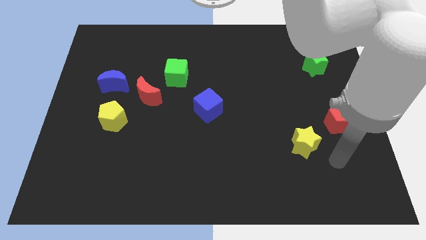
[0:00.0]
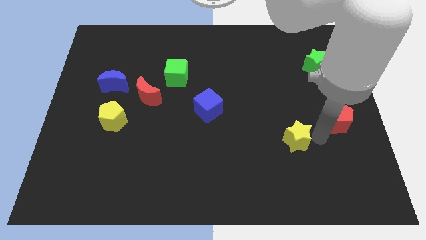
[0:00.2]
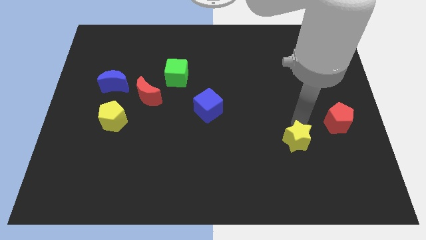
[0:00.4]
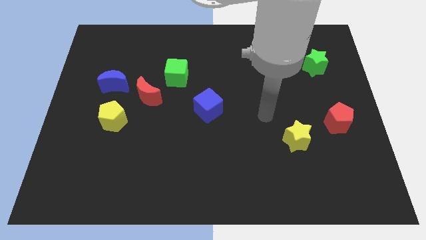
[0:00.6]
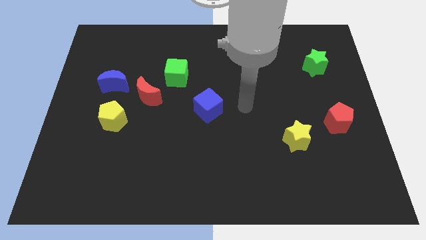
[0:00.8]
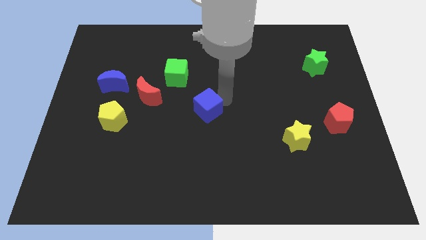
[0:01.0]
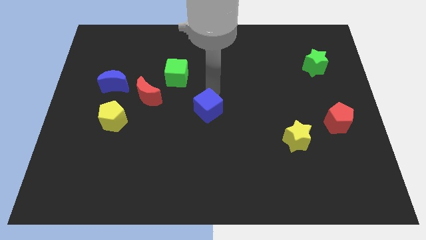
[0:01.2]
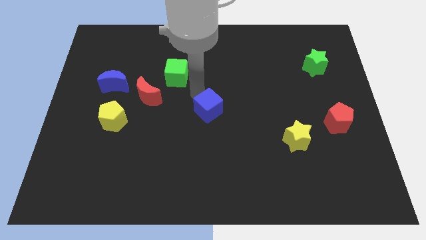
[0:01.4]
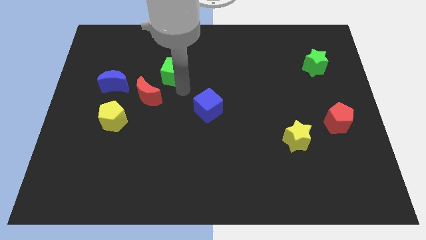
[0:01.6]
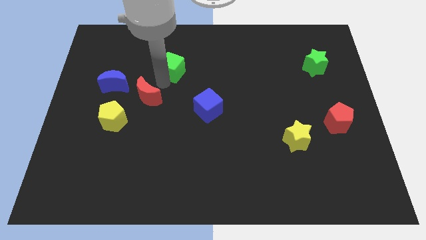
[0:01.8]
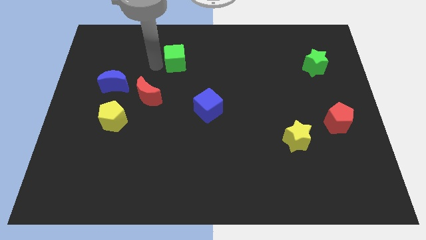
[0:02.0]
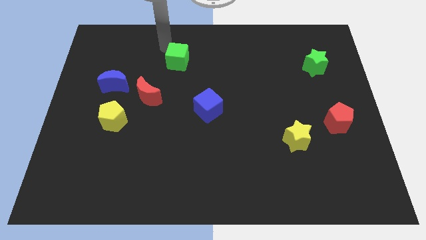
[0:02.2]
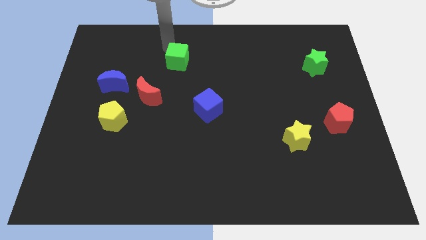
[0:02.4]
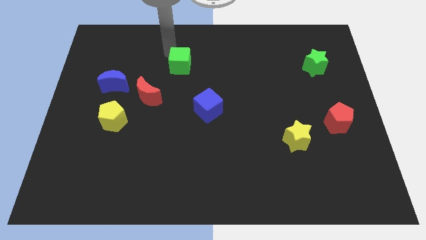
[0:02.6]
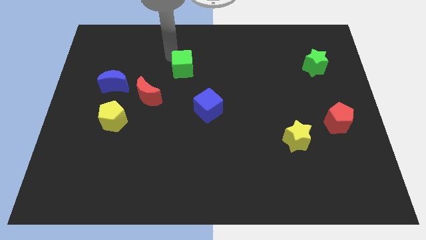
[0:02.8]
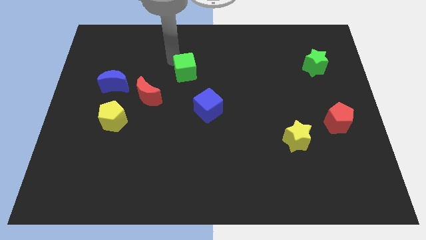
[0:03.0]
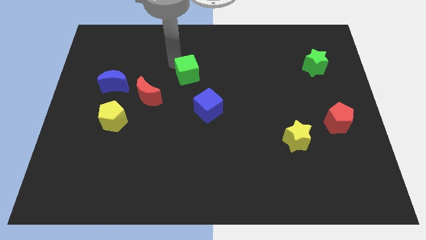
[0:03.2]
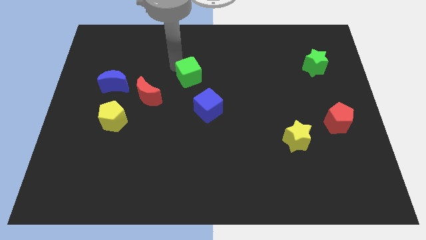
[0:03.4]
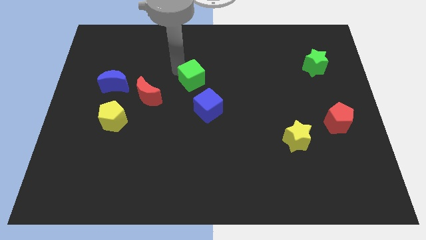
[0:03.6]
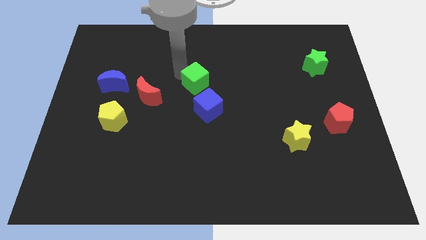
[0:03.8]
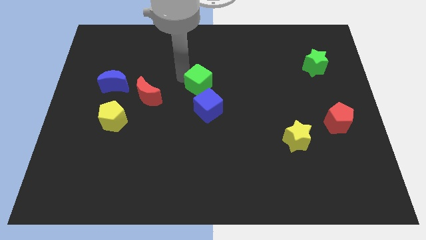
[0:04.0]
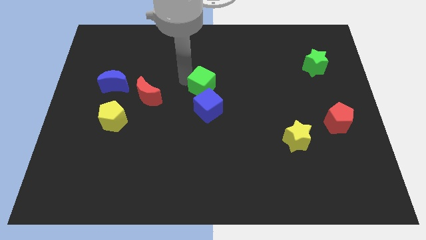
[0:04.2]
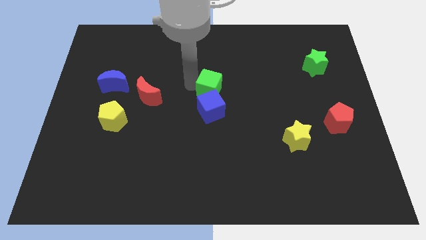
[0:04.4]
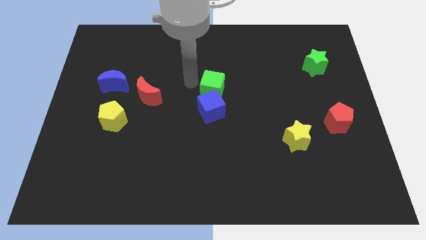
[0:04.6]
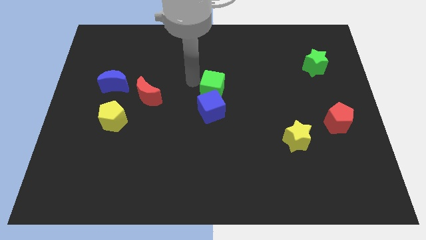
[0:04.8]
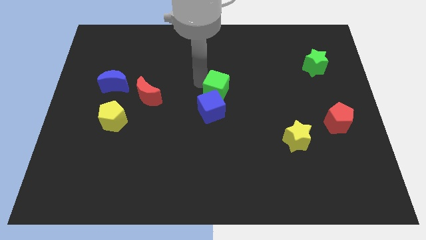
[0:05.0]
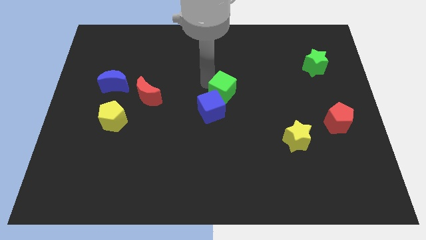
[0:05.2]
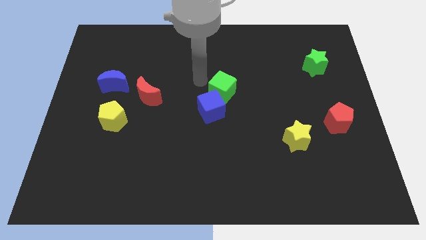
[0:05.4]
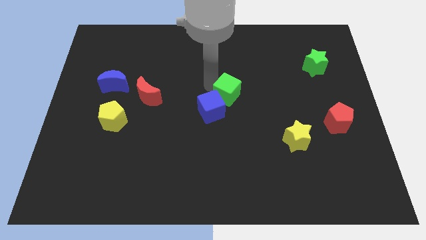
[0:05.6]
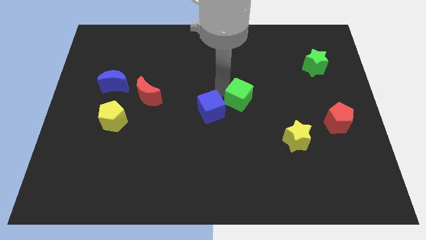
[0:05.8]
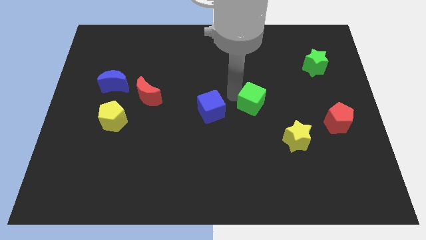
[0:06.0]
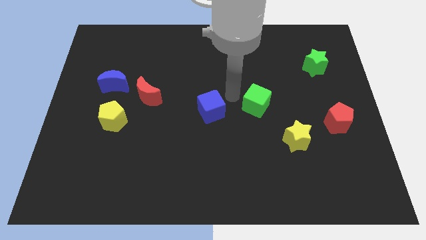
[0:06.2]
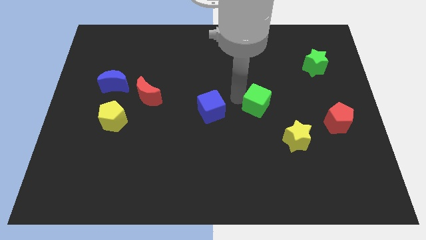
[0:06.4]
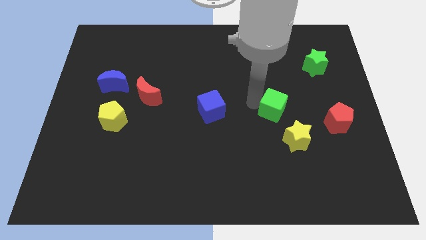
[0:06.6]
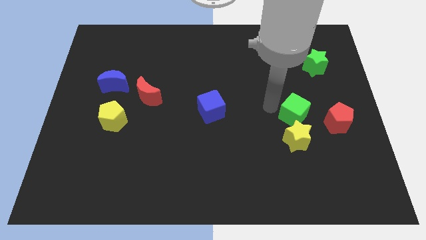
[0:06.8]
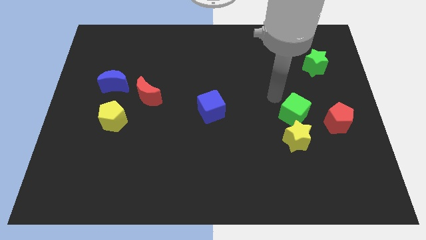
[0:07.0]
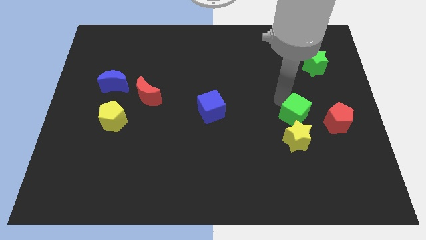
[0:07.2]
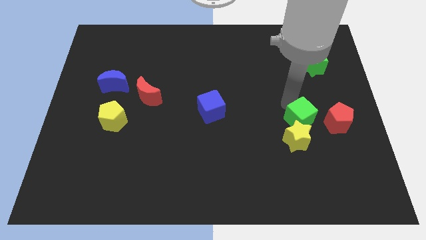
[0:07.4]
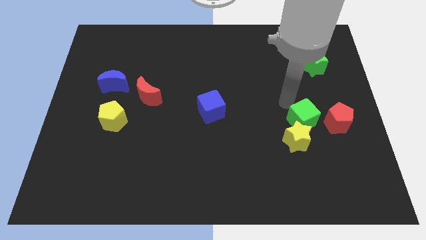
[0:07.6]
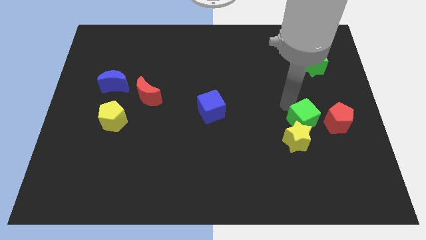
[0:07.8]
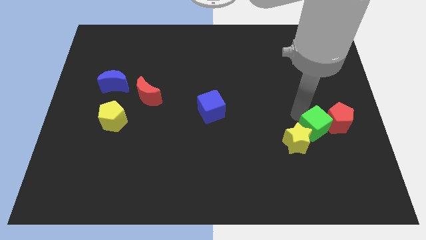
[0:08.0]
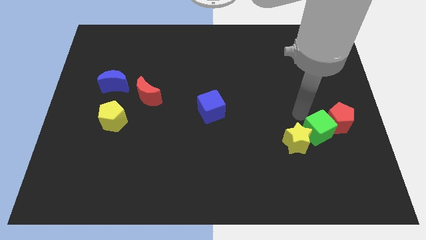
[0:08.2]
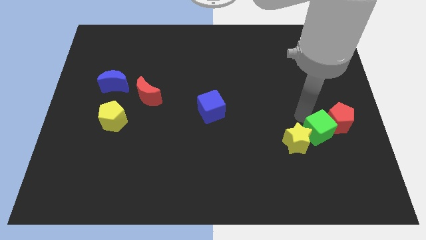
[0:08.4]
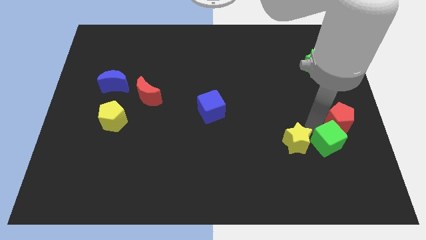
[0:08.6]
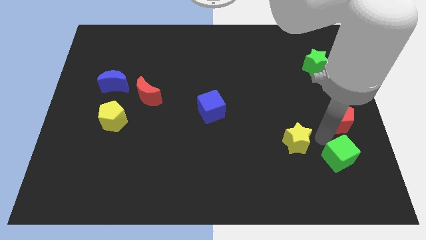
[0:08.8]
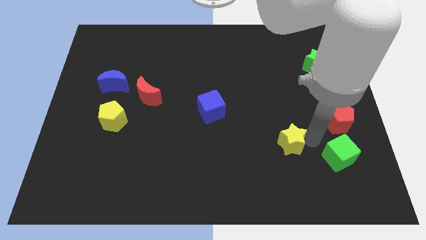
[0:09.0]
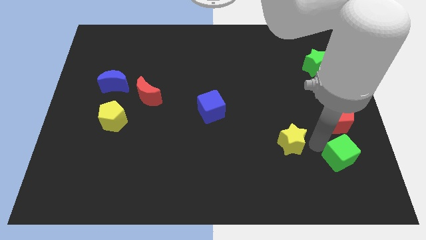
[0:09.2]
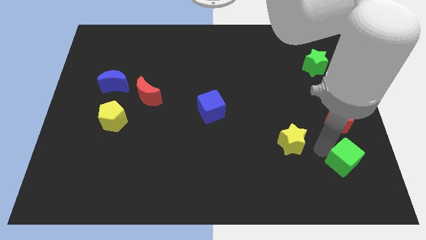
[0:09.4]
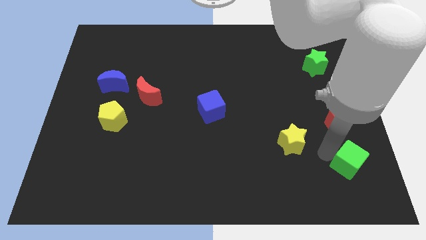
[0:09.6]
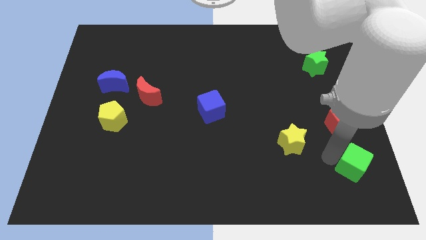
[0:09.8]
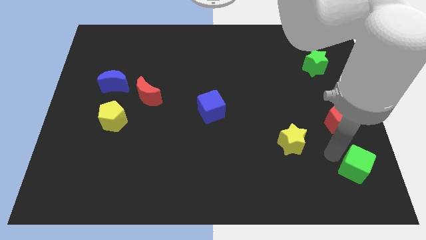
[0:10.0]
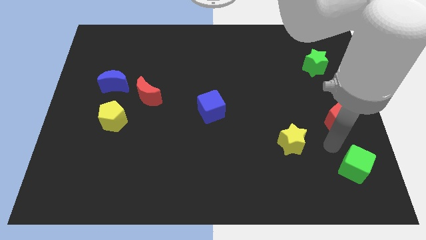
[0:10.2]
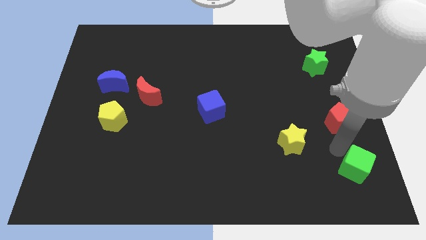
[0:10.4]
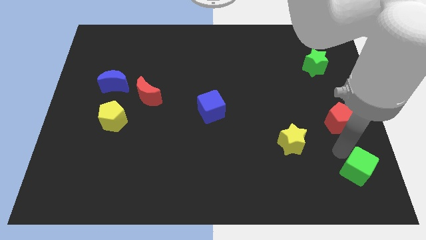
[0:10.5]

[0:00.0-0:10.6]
move the green cube to the bottom right of the board

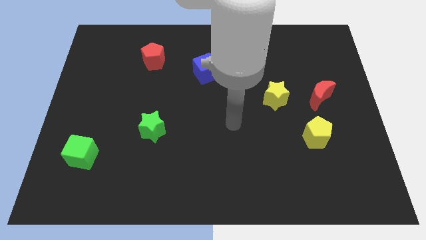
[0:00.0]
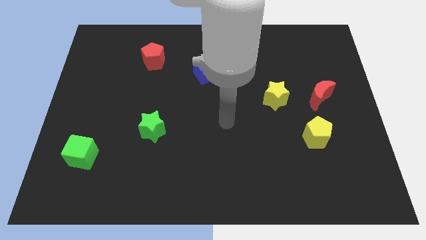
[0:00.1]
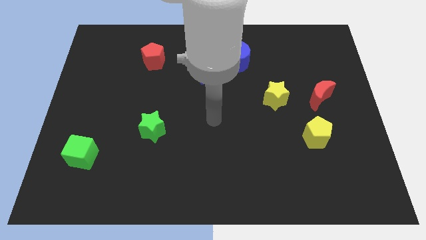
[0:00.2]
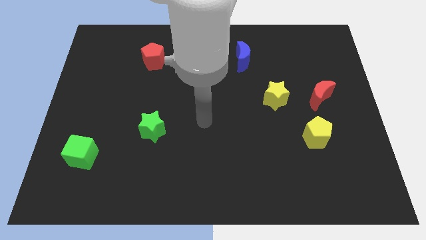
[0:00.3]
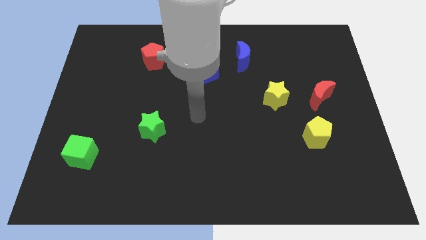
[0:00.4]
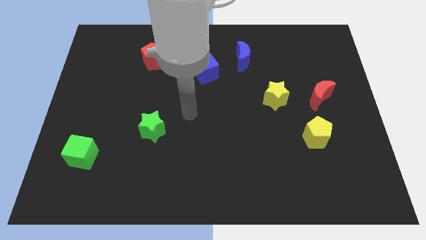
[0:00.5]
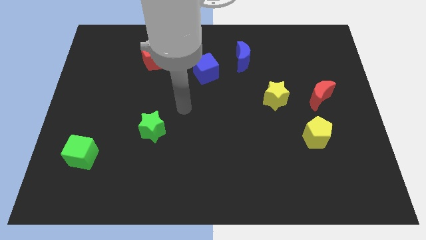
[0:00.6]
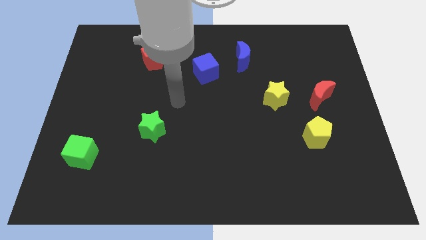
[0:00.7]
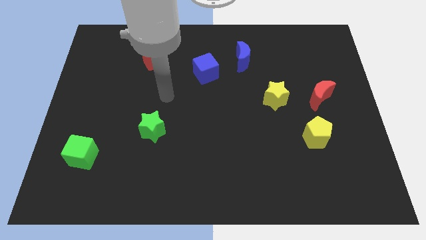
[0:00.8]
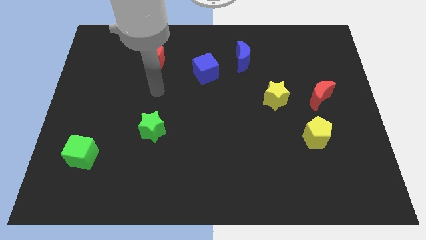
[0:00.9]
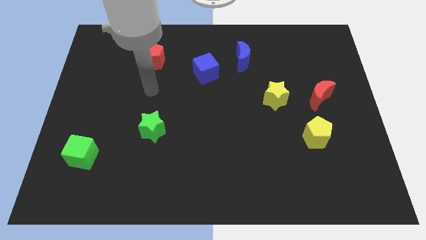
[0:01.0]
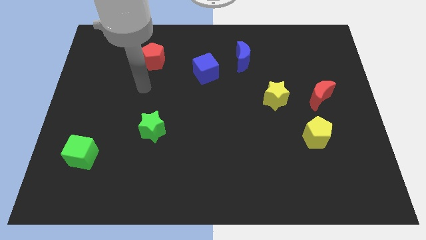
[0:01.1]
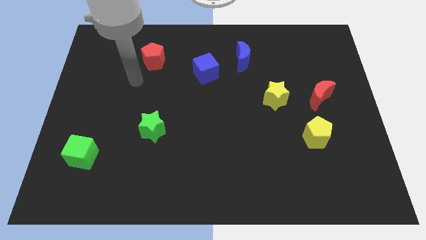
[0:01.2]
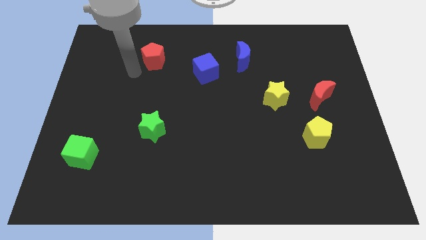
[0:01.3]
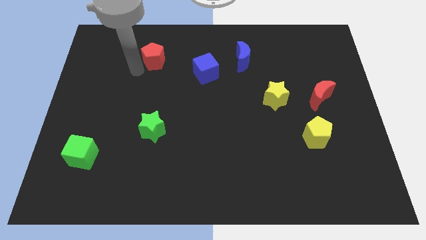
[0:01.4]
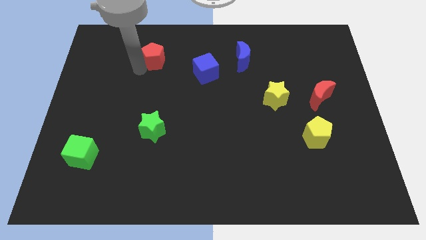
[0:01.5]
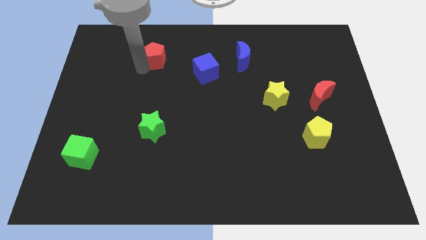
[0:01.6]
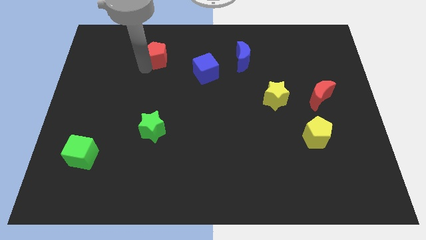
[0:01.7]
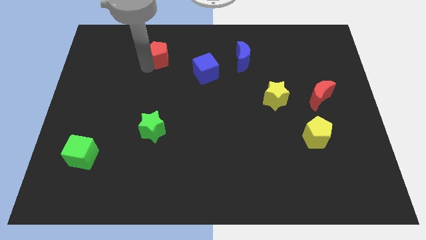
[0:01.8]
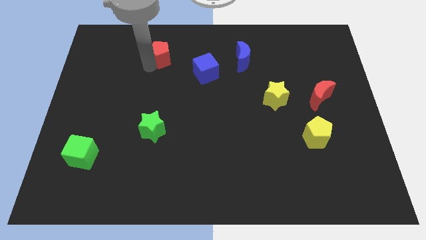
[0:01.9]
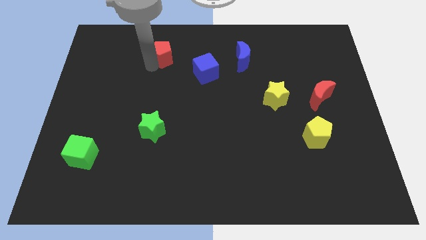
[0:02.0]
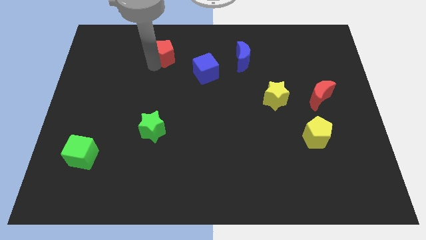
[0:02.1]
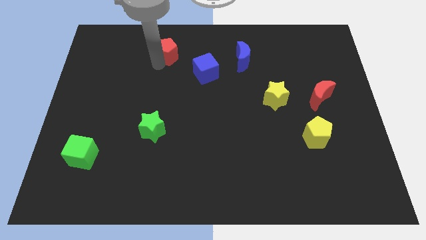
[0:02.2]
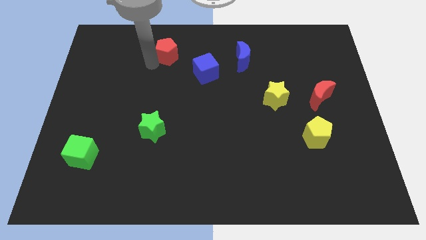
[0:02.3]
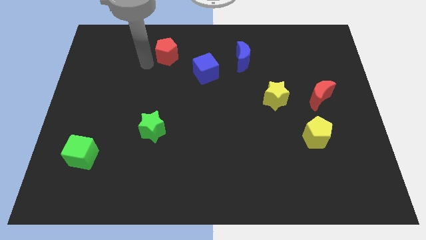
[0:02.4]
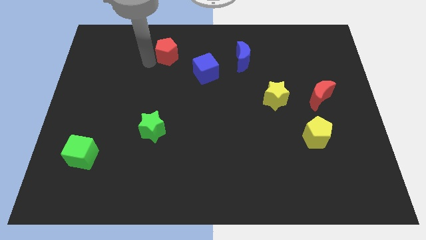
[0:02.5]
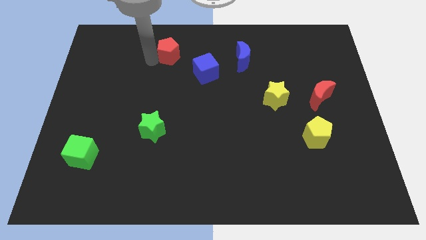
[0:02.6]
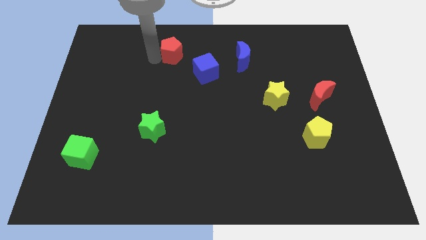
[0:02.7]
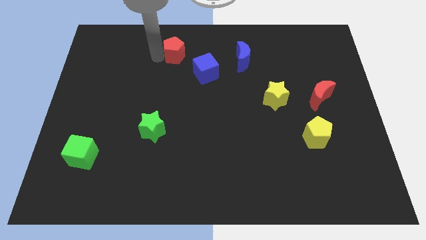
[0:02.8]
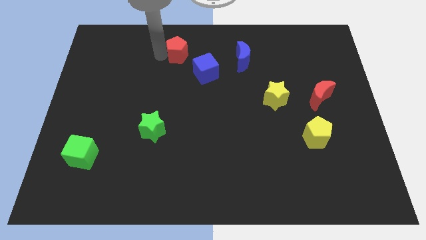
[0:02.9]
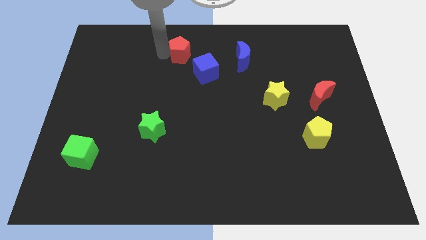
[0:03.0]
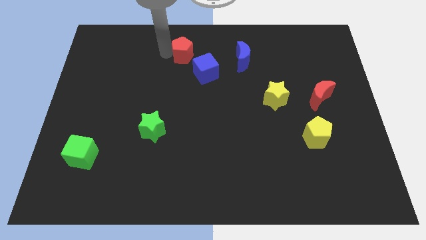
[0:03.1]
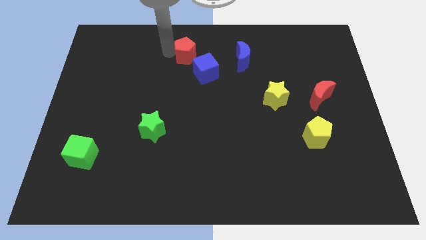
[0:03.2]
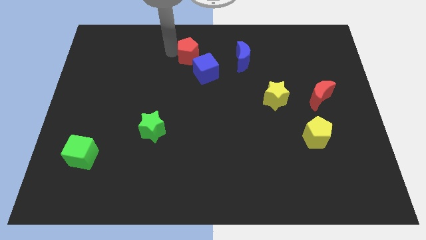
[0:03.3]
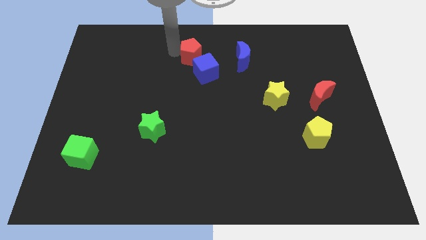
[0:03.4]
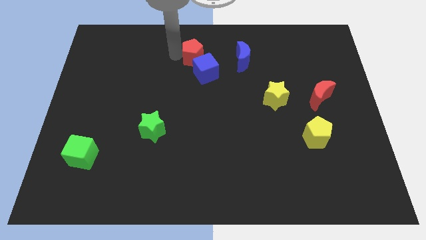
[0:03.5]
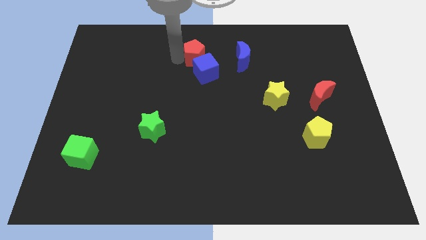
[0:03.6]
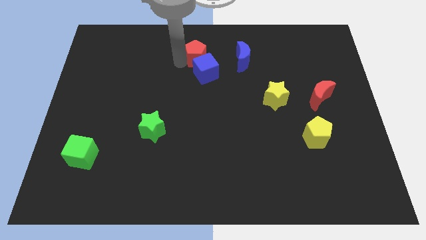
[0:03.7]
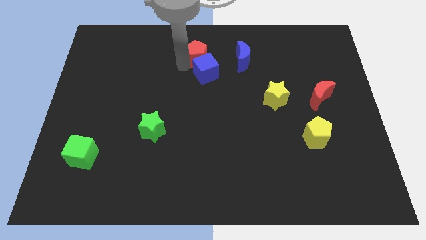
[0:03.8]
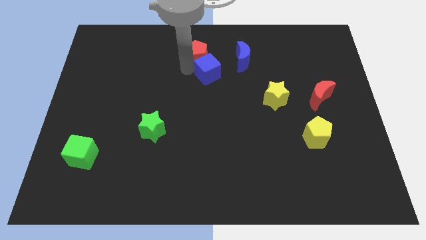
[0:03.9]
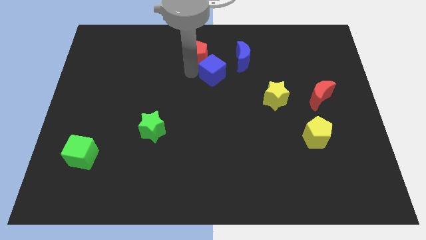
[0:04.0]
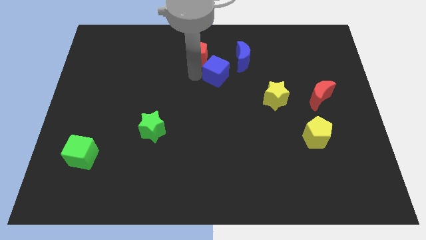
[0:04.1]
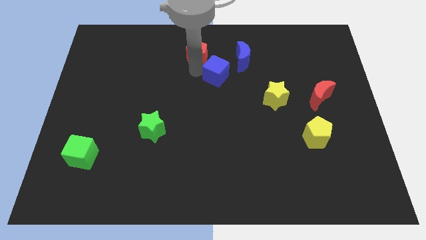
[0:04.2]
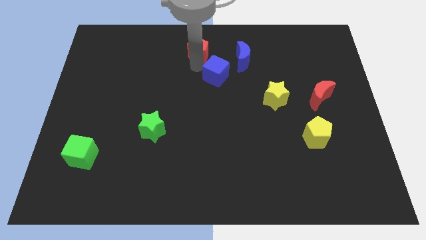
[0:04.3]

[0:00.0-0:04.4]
slide the red pentagon to the towards your base
